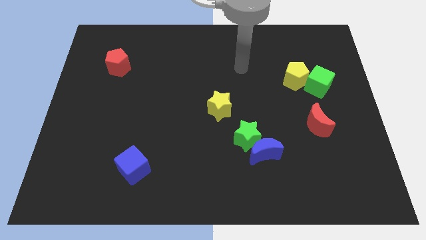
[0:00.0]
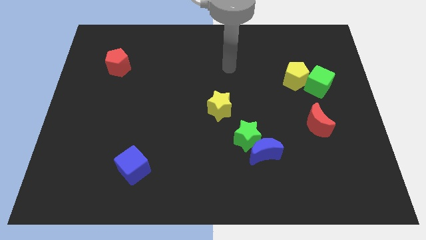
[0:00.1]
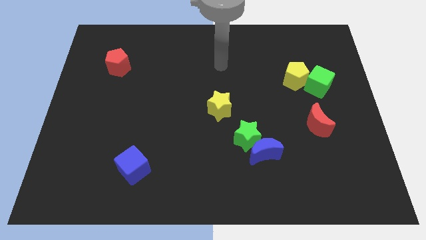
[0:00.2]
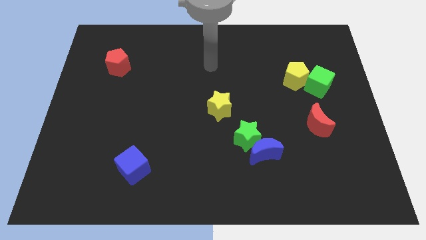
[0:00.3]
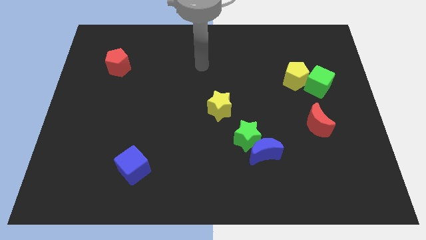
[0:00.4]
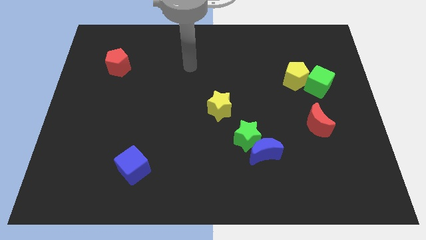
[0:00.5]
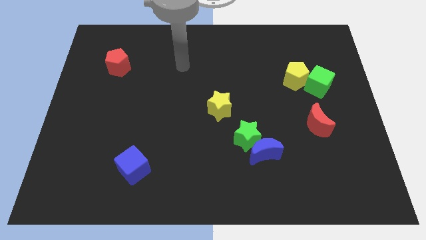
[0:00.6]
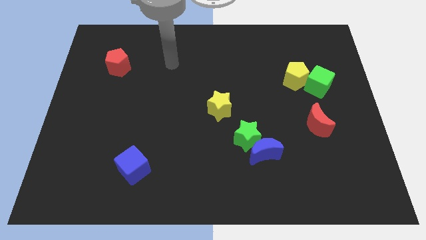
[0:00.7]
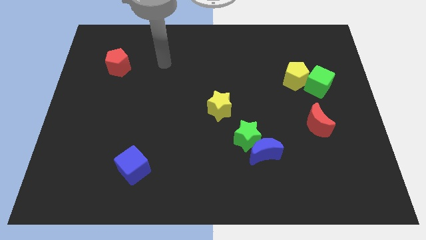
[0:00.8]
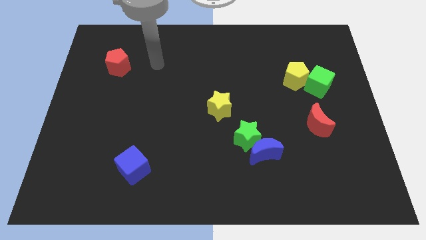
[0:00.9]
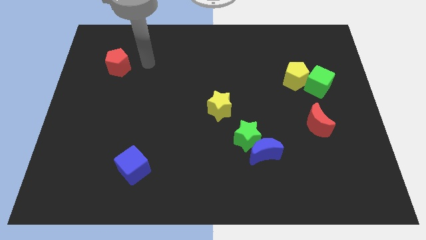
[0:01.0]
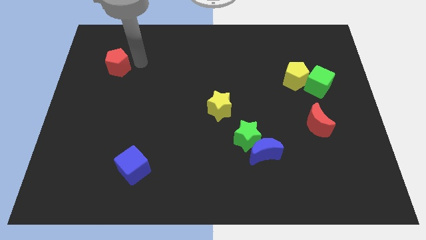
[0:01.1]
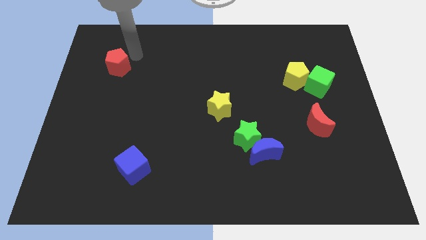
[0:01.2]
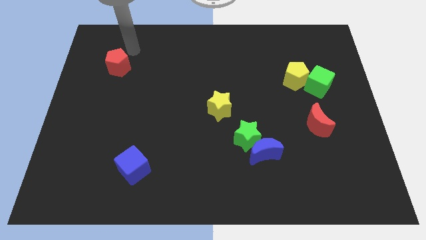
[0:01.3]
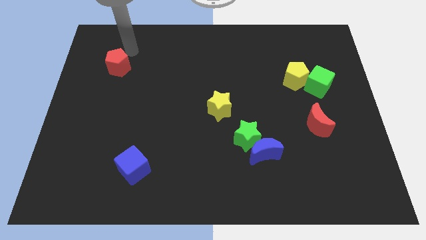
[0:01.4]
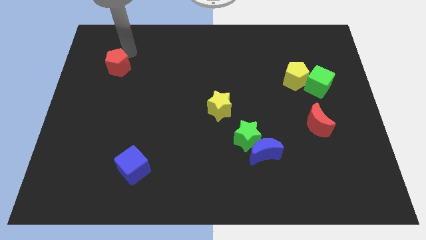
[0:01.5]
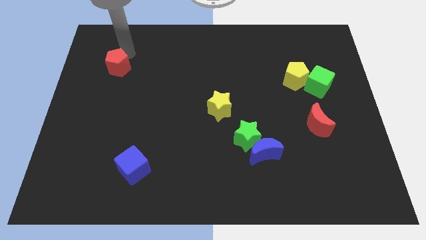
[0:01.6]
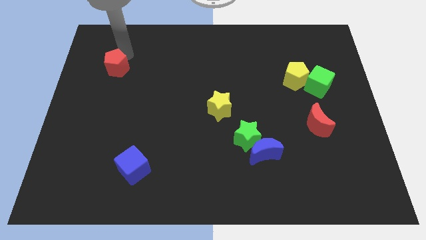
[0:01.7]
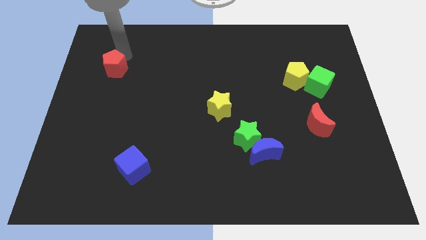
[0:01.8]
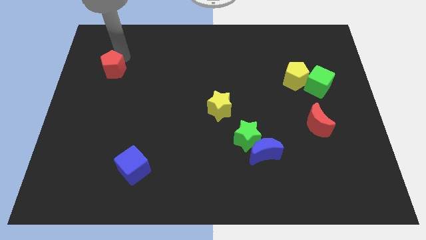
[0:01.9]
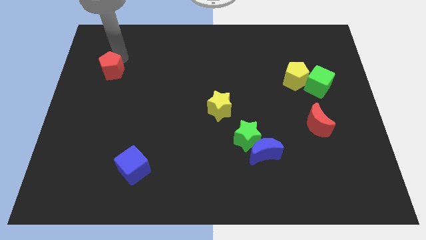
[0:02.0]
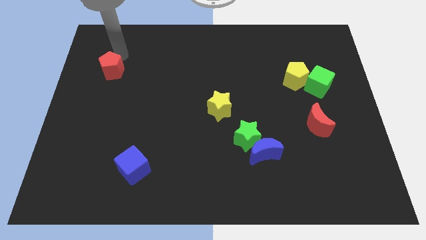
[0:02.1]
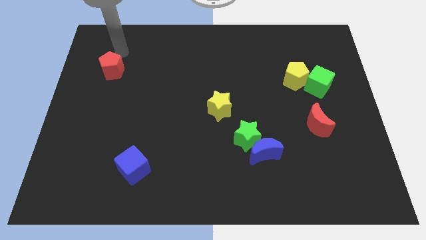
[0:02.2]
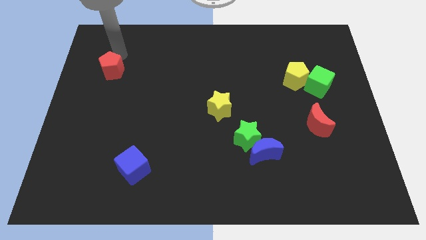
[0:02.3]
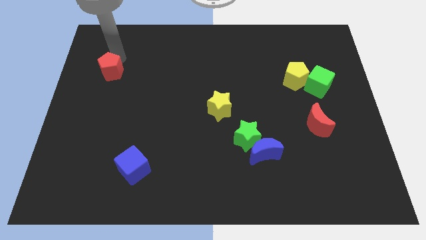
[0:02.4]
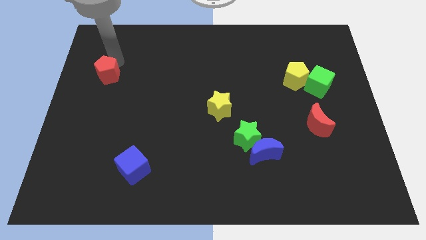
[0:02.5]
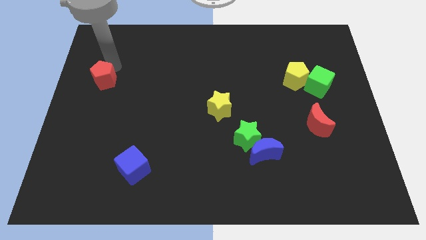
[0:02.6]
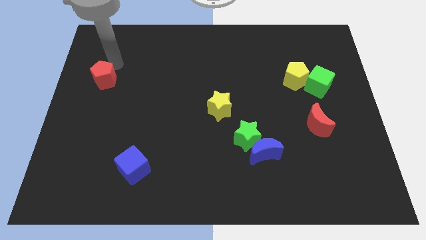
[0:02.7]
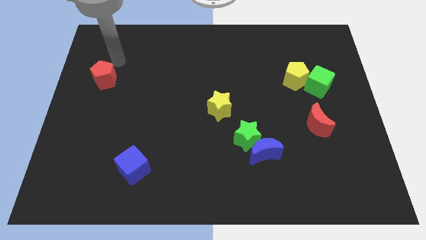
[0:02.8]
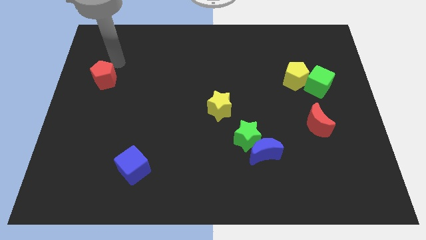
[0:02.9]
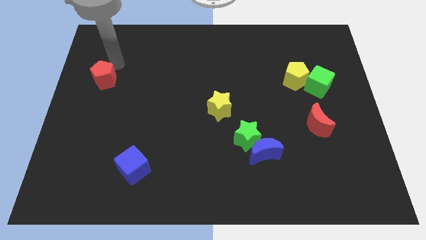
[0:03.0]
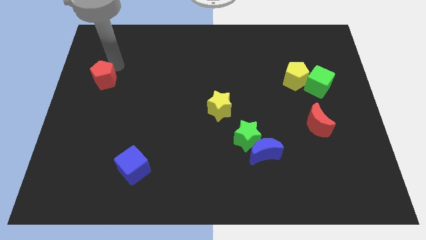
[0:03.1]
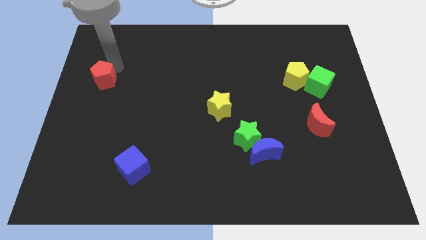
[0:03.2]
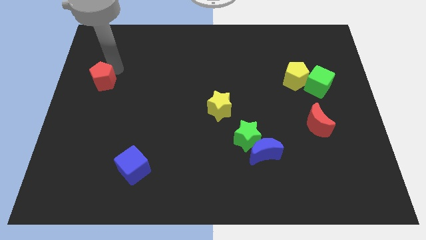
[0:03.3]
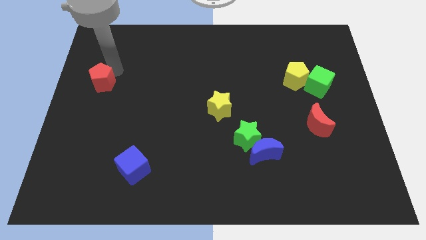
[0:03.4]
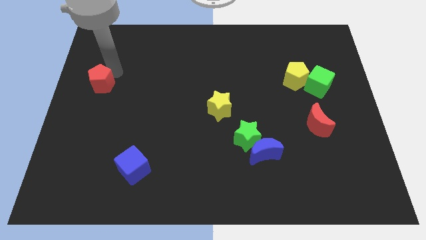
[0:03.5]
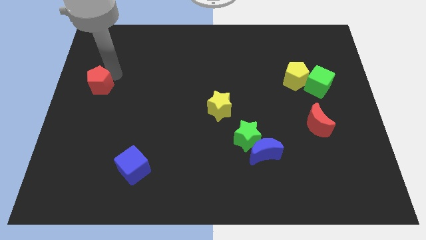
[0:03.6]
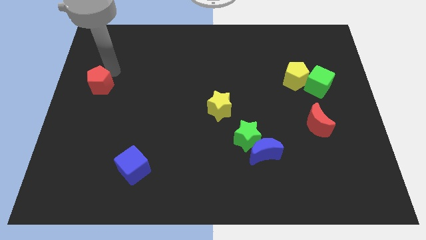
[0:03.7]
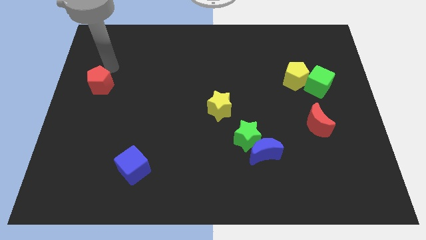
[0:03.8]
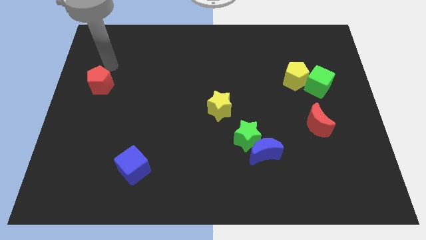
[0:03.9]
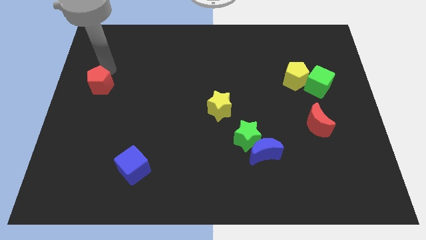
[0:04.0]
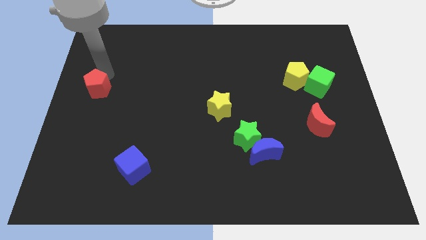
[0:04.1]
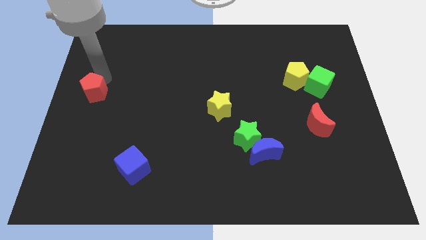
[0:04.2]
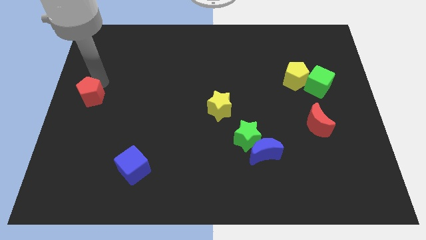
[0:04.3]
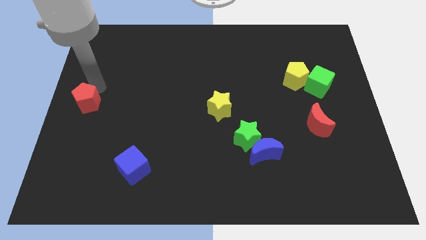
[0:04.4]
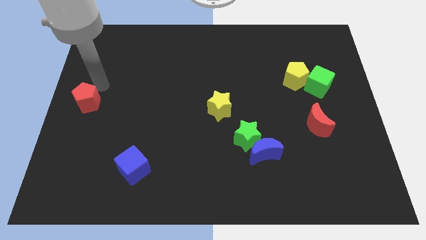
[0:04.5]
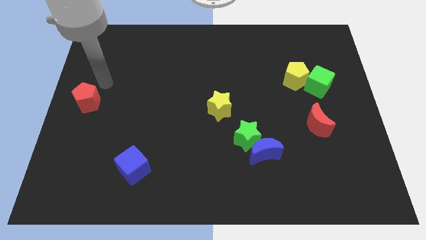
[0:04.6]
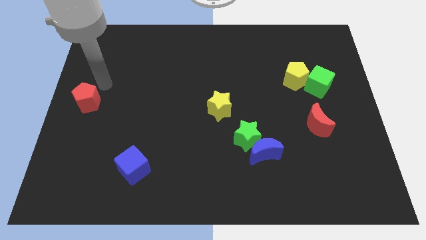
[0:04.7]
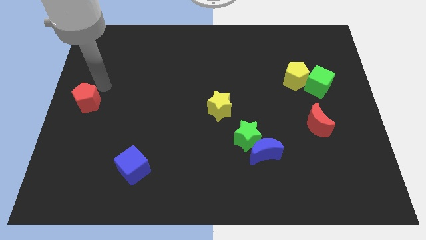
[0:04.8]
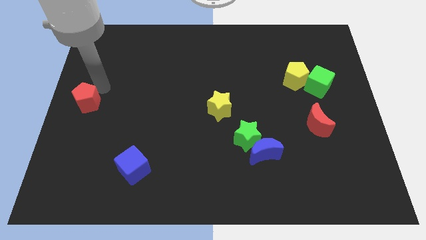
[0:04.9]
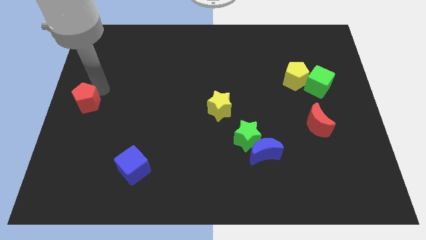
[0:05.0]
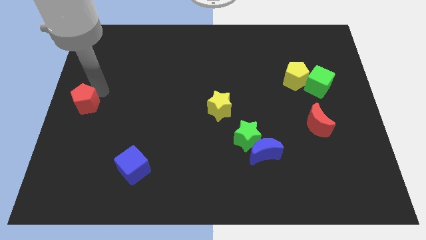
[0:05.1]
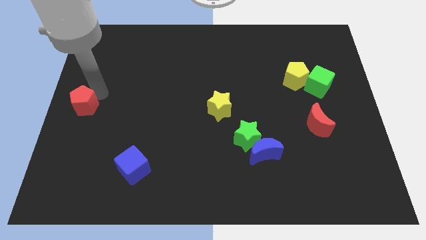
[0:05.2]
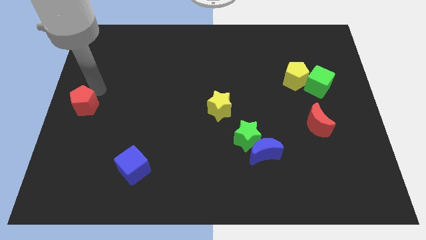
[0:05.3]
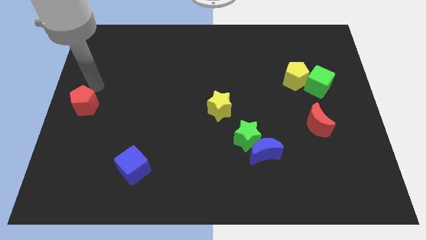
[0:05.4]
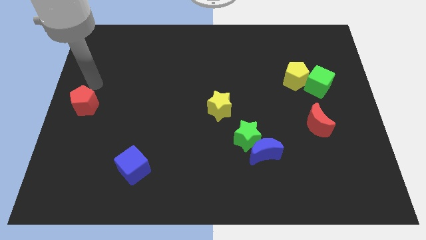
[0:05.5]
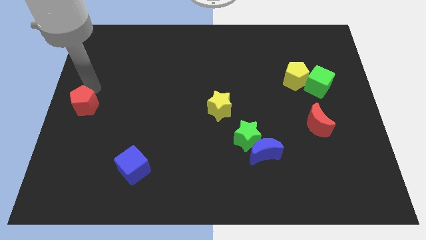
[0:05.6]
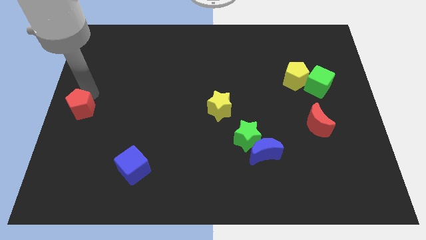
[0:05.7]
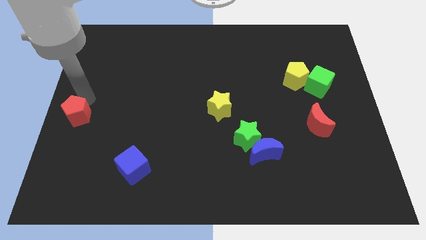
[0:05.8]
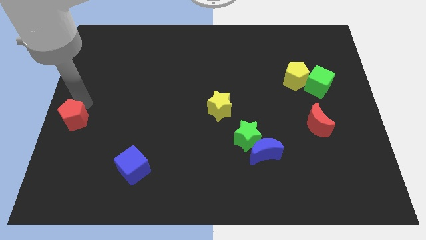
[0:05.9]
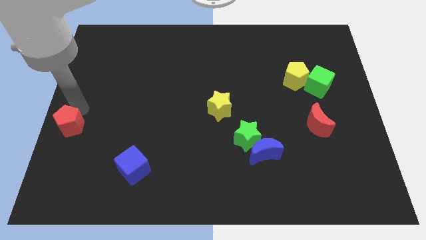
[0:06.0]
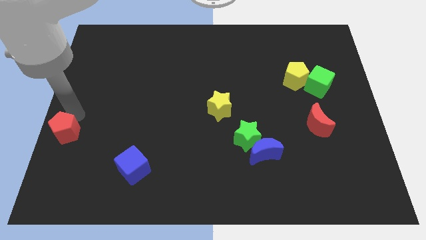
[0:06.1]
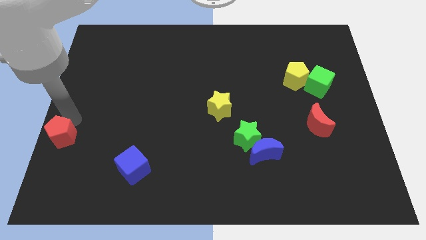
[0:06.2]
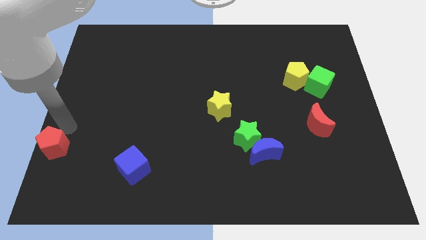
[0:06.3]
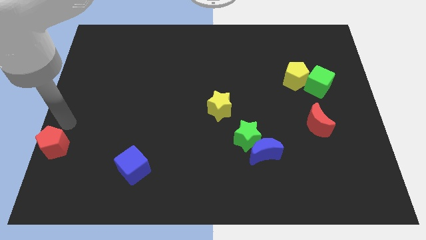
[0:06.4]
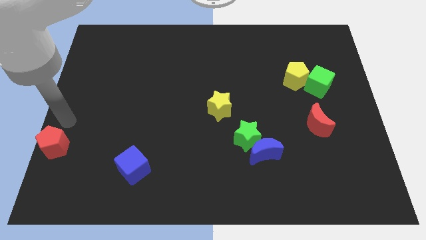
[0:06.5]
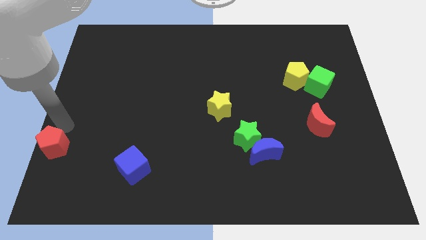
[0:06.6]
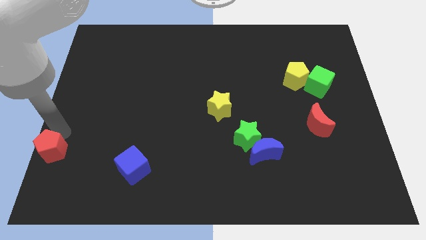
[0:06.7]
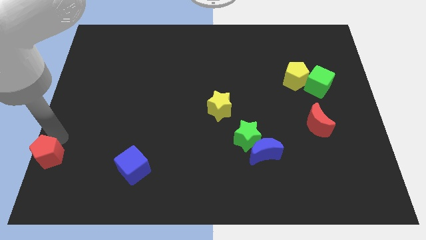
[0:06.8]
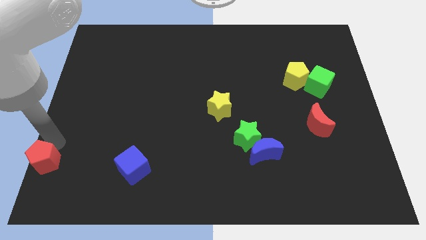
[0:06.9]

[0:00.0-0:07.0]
push the red pentagon to the lower left corner
